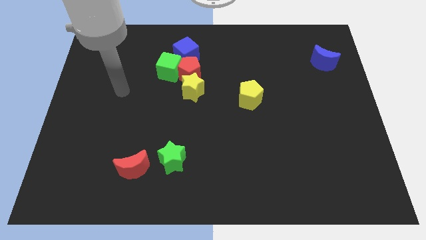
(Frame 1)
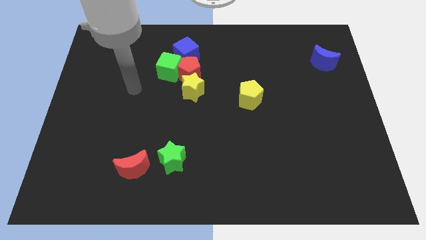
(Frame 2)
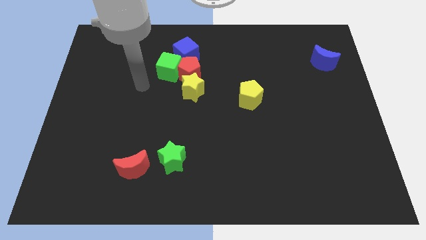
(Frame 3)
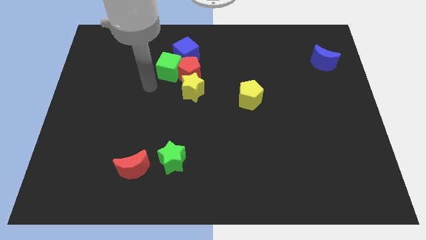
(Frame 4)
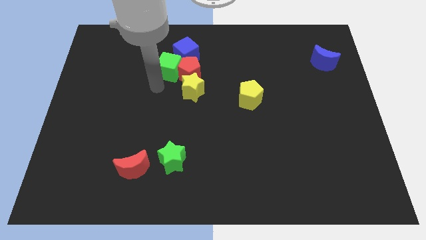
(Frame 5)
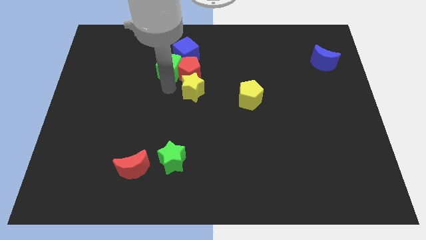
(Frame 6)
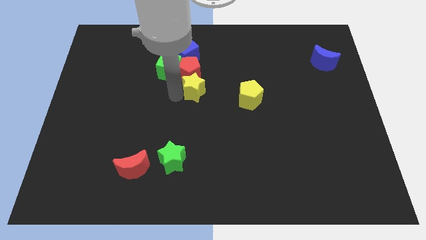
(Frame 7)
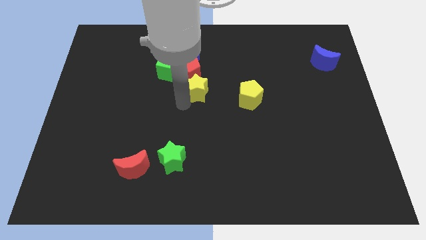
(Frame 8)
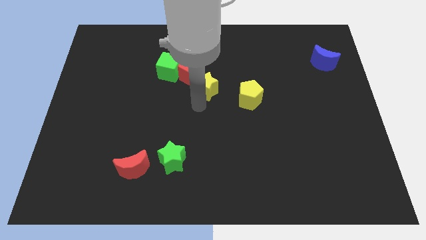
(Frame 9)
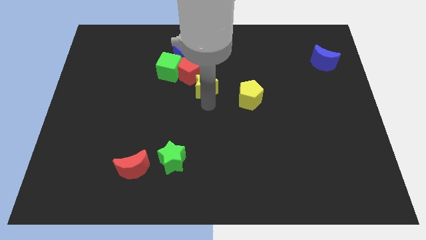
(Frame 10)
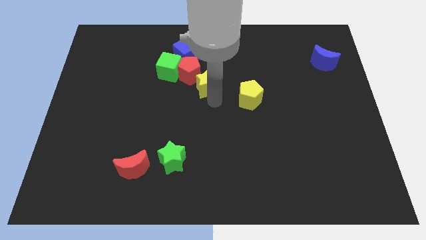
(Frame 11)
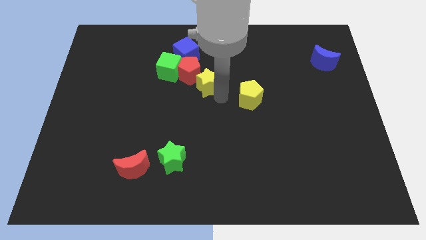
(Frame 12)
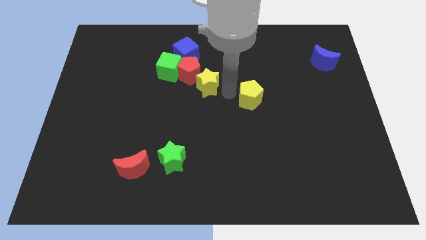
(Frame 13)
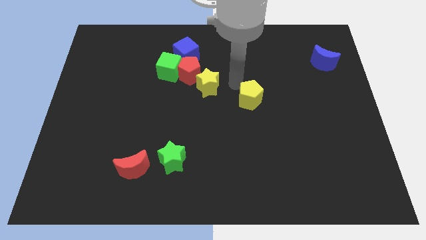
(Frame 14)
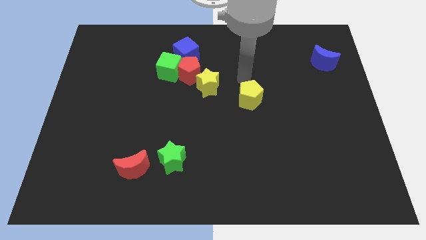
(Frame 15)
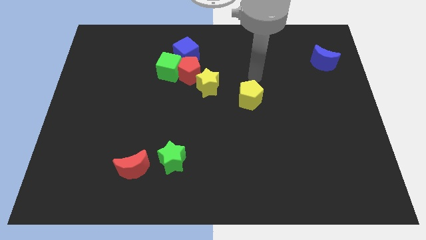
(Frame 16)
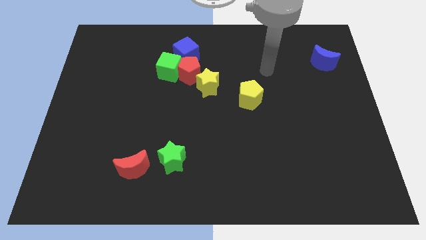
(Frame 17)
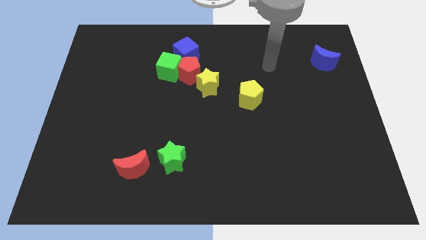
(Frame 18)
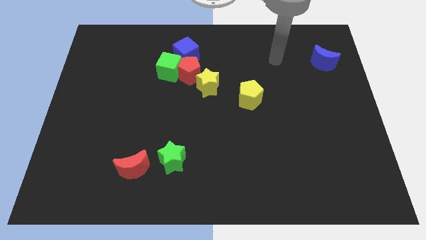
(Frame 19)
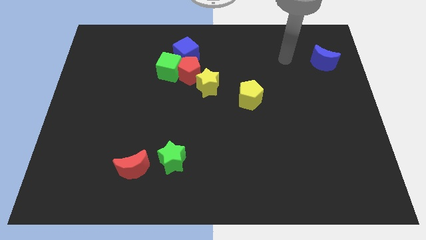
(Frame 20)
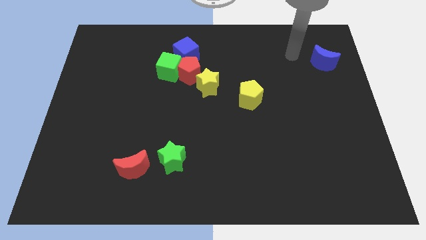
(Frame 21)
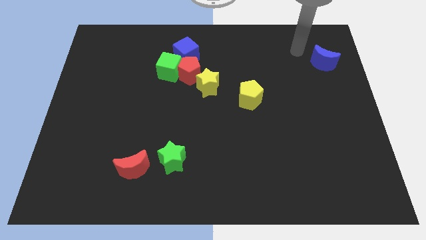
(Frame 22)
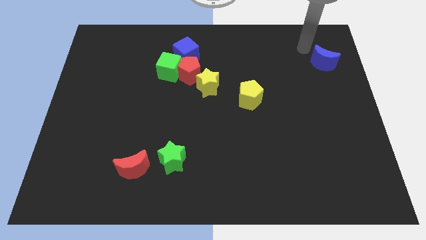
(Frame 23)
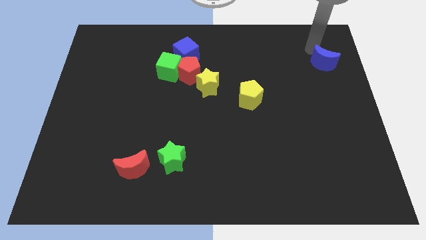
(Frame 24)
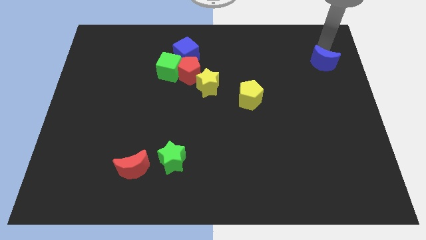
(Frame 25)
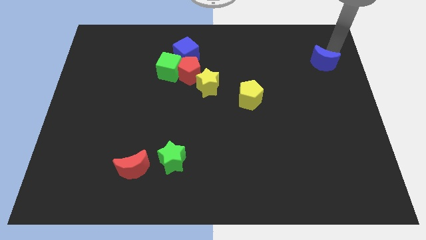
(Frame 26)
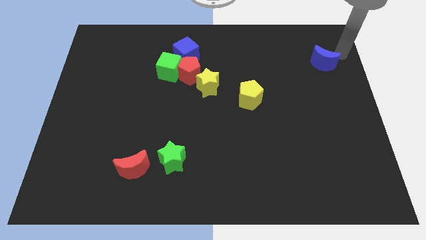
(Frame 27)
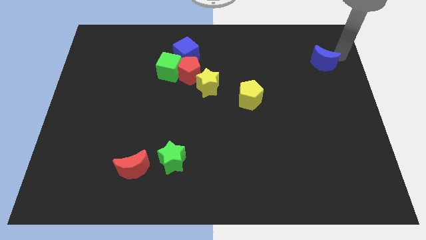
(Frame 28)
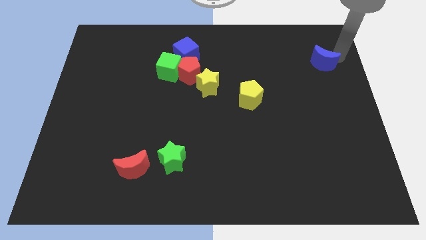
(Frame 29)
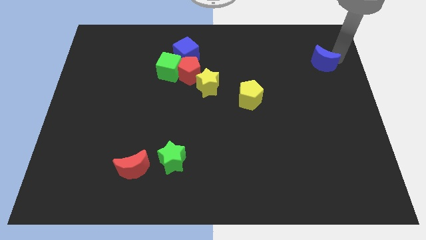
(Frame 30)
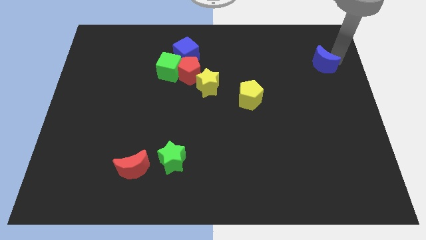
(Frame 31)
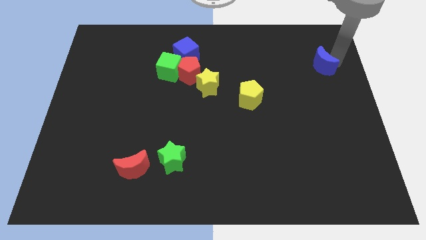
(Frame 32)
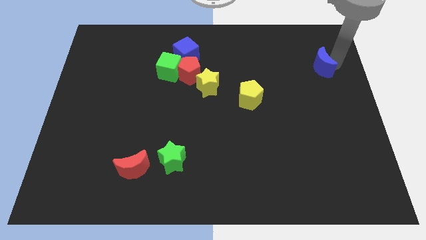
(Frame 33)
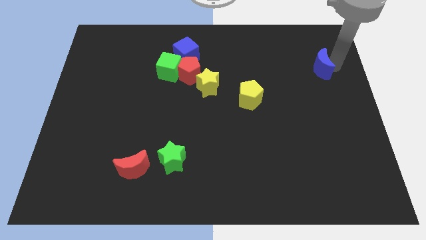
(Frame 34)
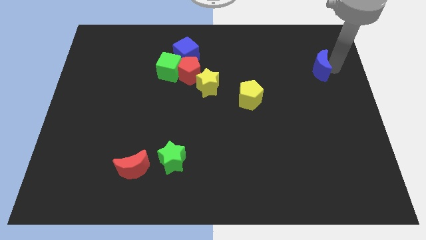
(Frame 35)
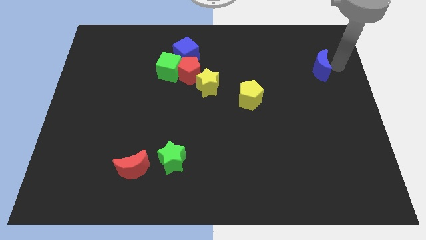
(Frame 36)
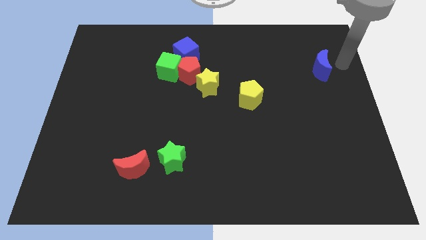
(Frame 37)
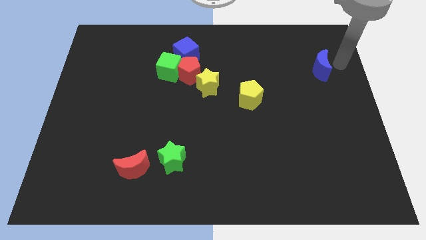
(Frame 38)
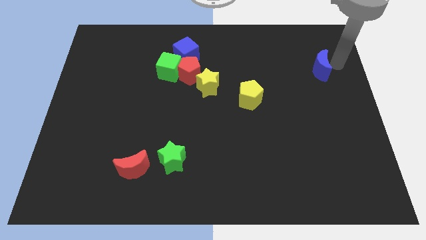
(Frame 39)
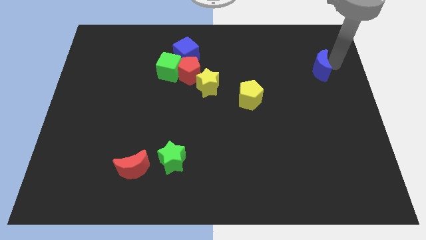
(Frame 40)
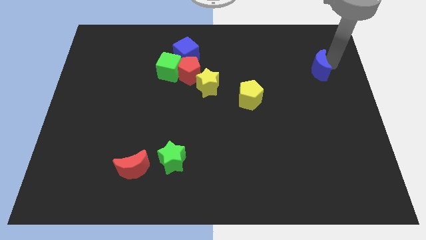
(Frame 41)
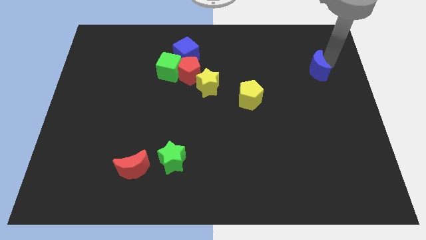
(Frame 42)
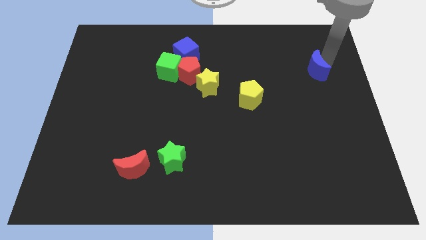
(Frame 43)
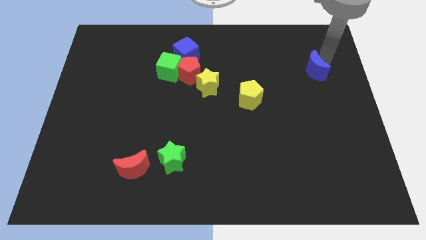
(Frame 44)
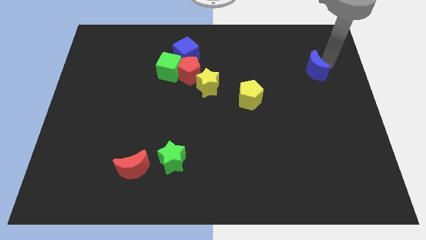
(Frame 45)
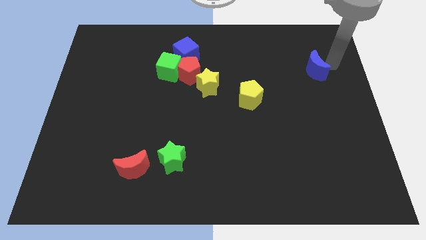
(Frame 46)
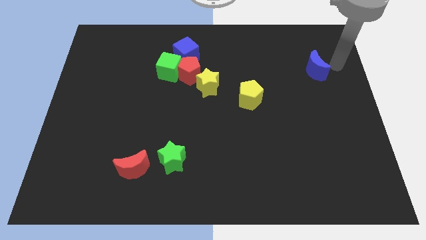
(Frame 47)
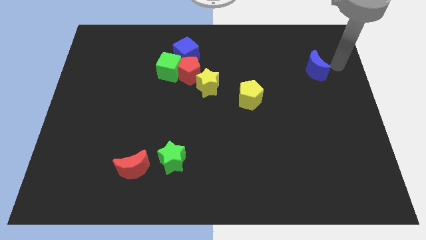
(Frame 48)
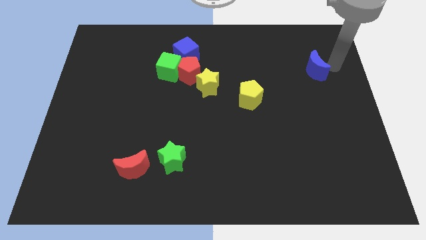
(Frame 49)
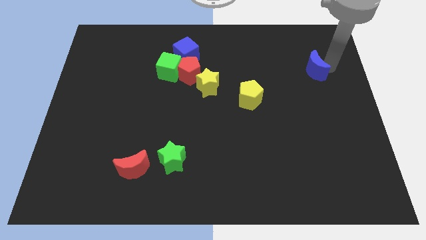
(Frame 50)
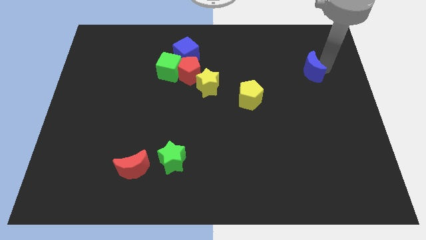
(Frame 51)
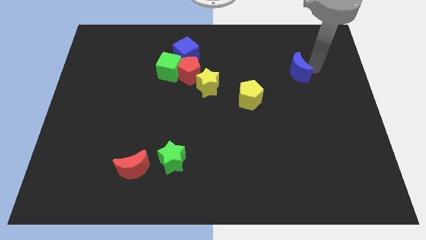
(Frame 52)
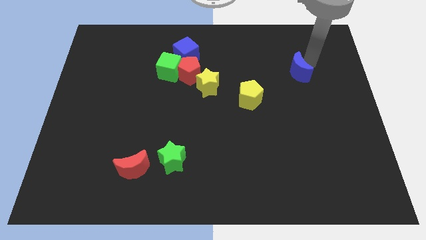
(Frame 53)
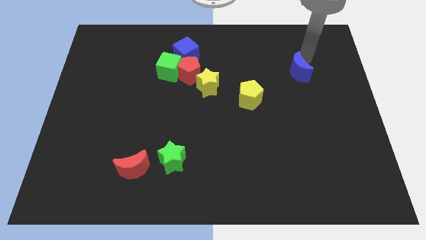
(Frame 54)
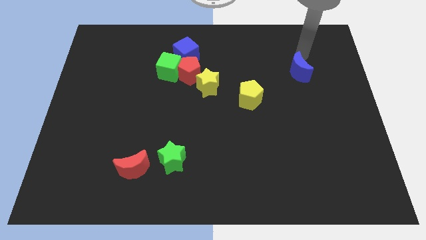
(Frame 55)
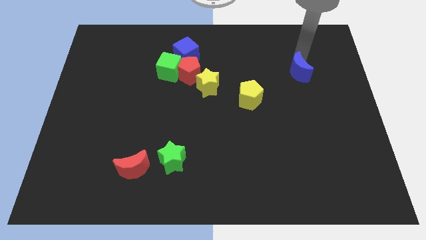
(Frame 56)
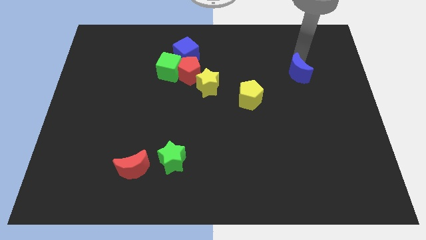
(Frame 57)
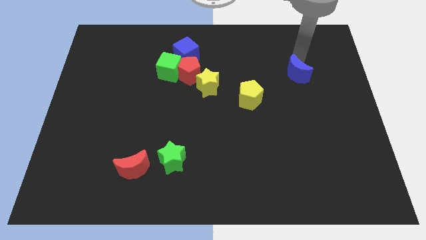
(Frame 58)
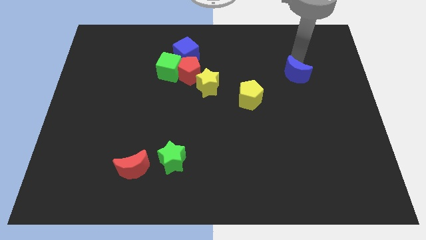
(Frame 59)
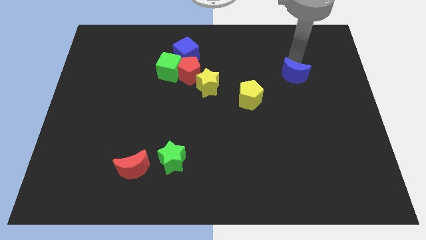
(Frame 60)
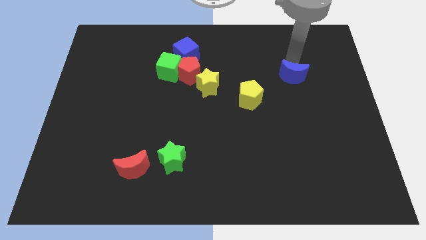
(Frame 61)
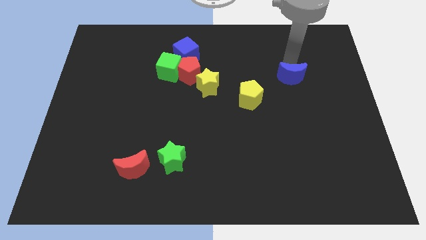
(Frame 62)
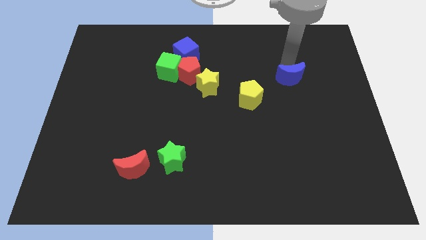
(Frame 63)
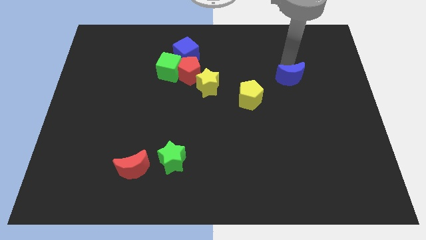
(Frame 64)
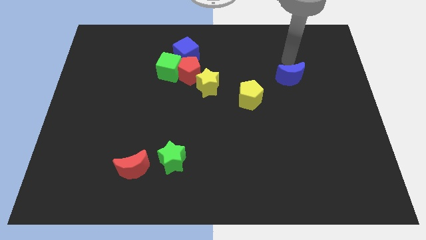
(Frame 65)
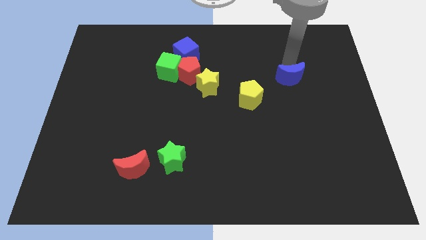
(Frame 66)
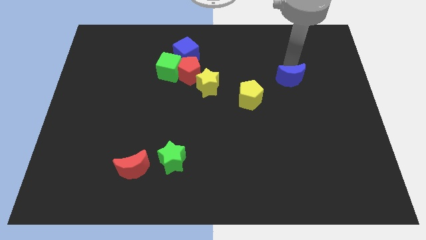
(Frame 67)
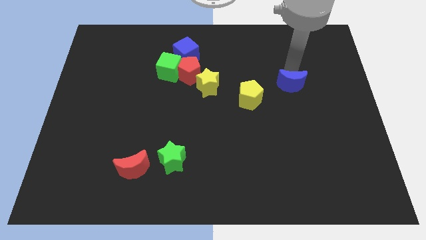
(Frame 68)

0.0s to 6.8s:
slide the blue moon right of the yellow pentagon

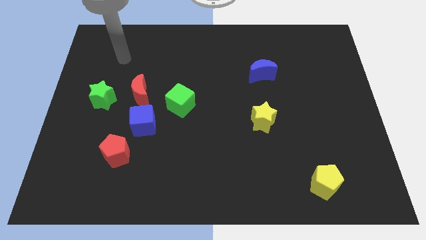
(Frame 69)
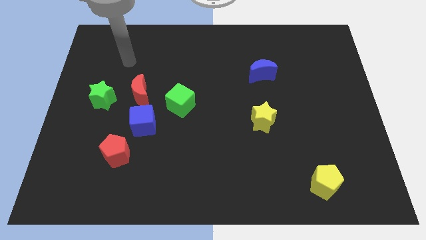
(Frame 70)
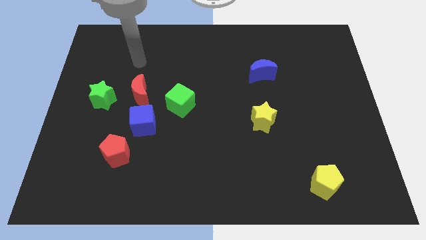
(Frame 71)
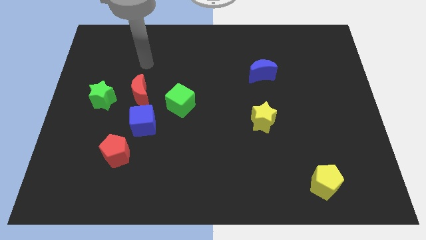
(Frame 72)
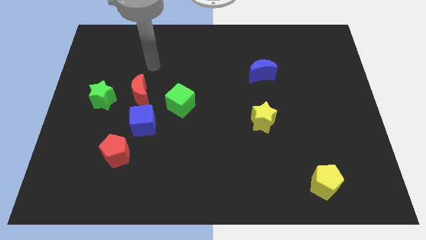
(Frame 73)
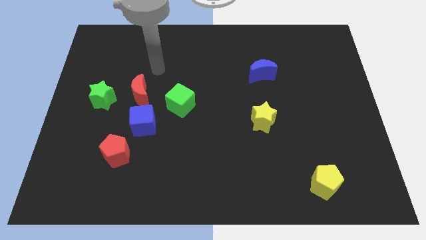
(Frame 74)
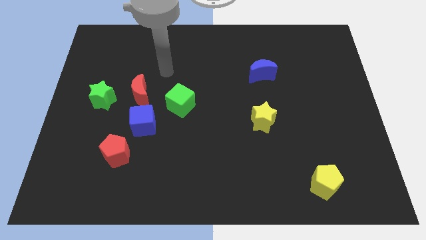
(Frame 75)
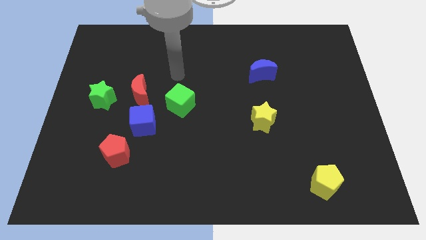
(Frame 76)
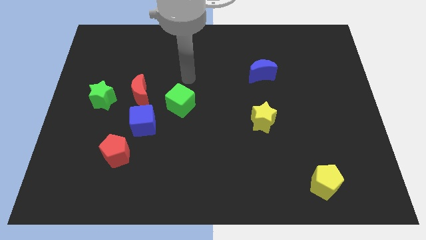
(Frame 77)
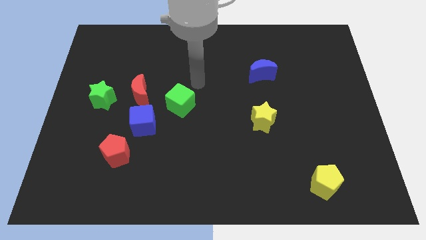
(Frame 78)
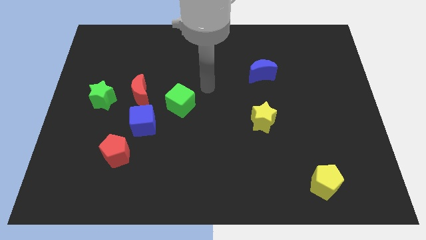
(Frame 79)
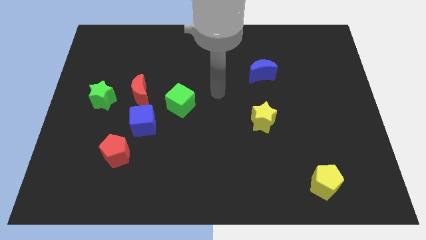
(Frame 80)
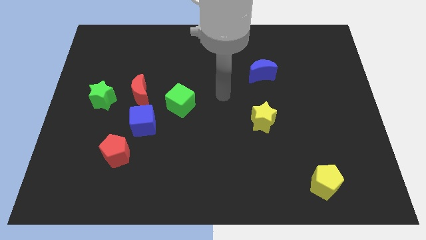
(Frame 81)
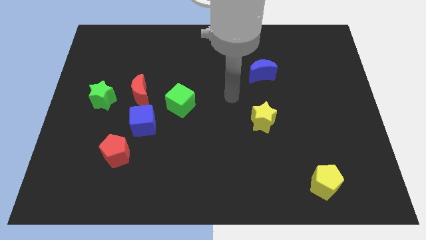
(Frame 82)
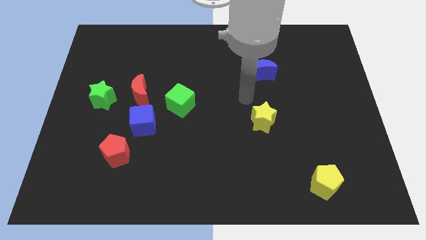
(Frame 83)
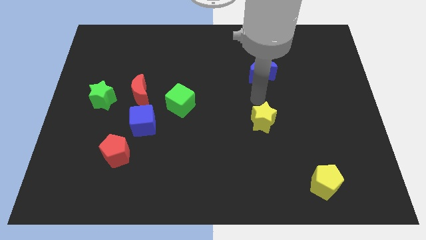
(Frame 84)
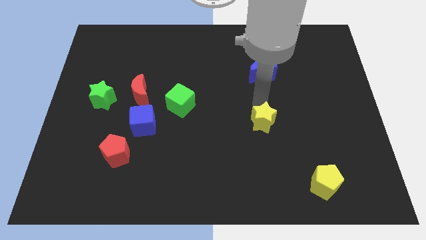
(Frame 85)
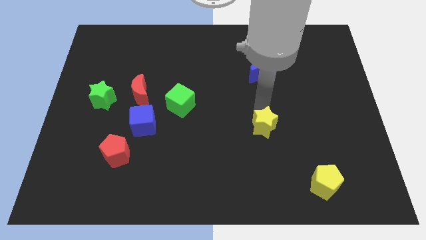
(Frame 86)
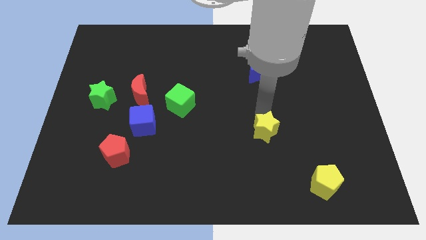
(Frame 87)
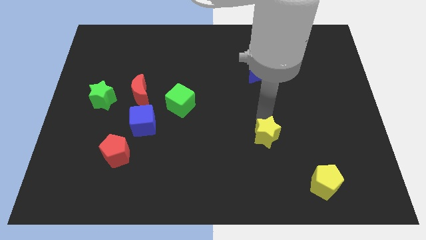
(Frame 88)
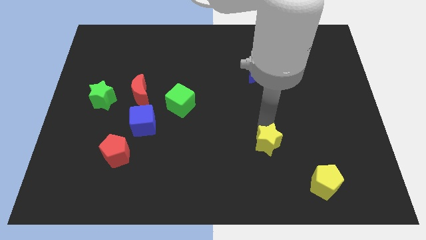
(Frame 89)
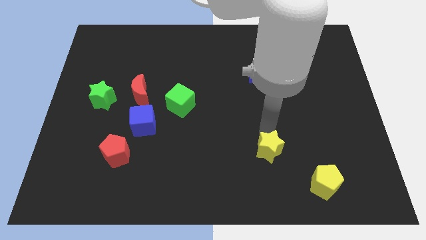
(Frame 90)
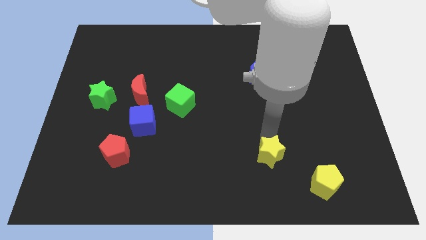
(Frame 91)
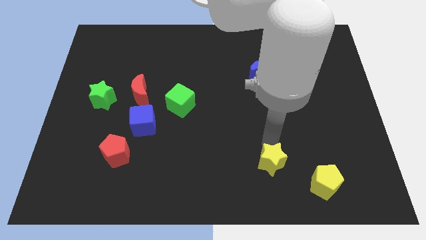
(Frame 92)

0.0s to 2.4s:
move the yellow star to the left of the yellow pentagon
